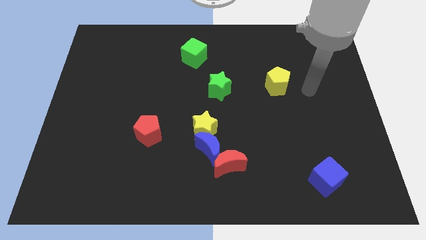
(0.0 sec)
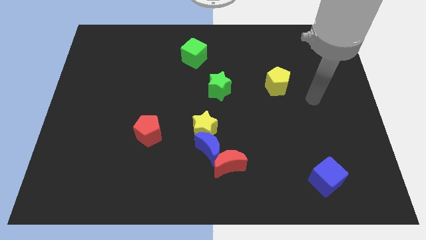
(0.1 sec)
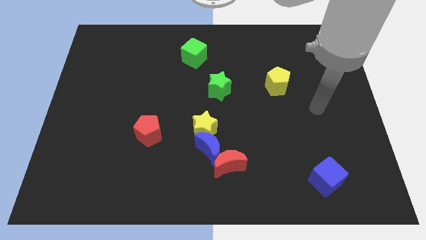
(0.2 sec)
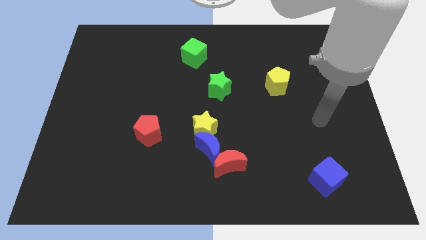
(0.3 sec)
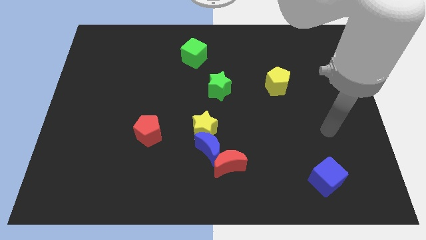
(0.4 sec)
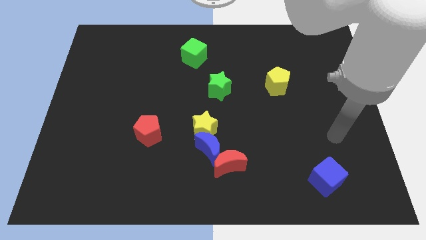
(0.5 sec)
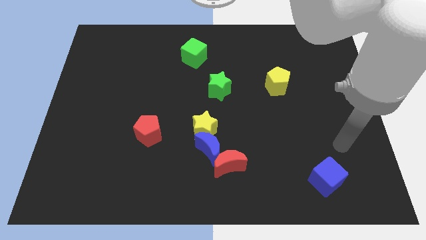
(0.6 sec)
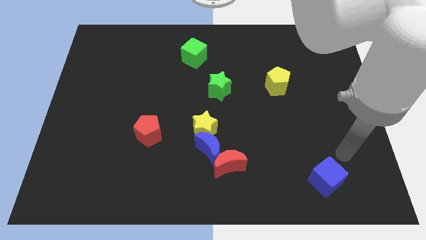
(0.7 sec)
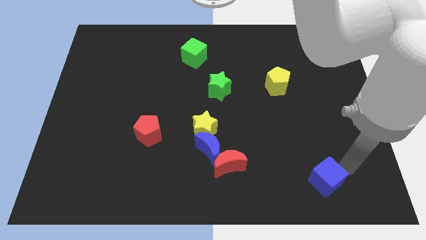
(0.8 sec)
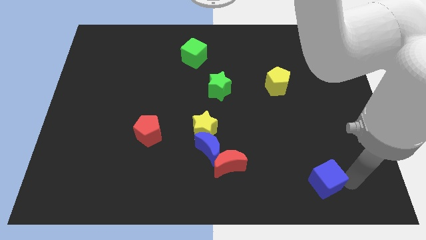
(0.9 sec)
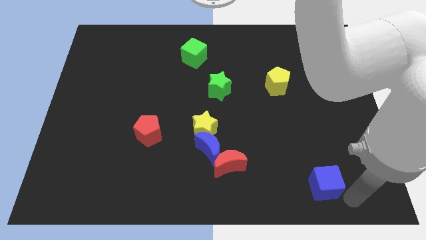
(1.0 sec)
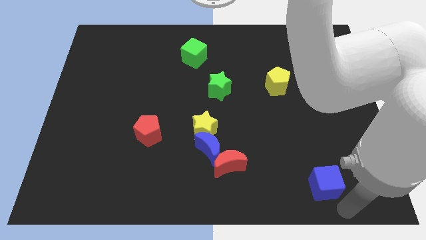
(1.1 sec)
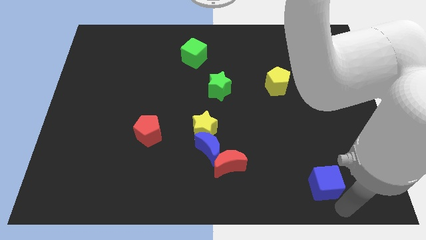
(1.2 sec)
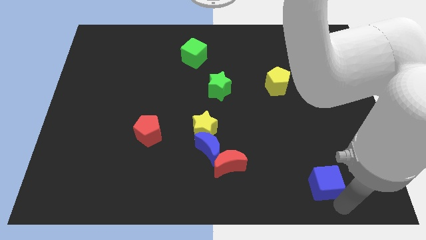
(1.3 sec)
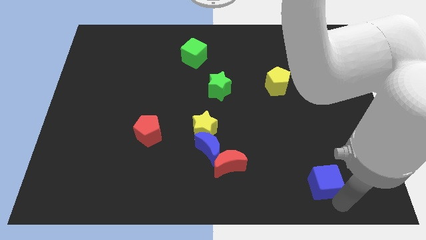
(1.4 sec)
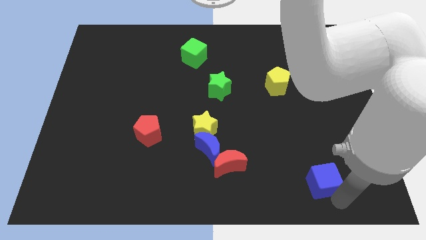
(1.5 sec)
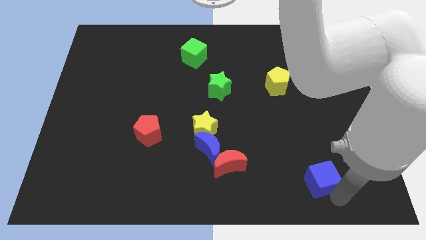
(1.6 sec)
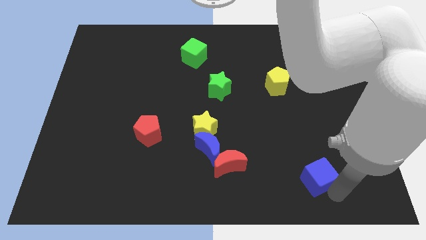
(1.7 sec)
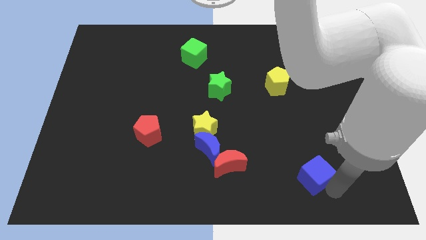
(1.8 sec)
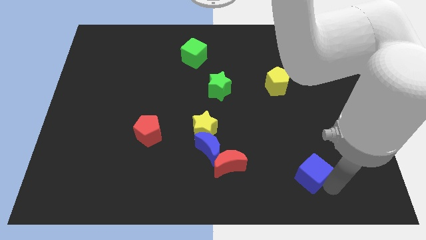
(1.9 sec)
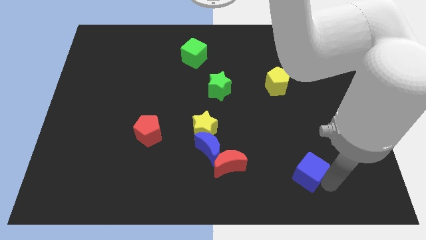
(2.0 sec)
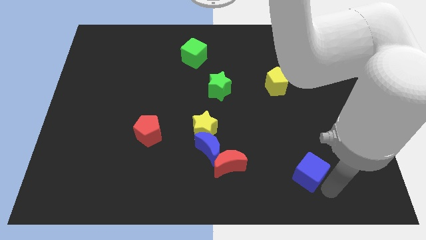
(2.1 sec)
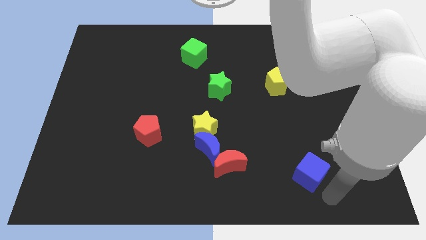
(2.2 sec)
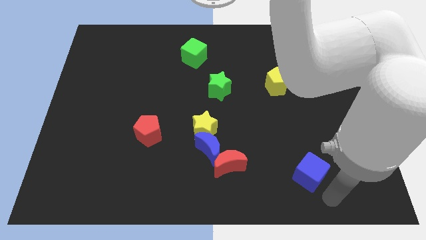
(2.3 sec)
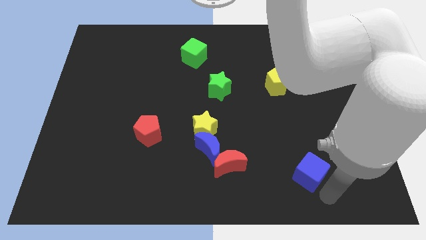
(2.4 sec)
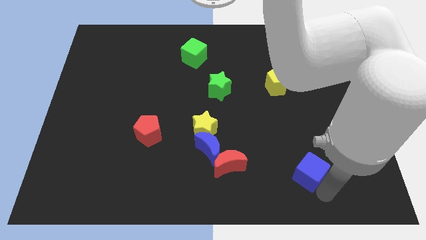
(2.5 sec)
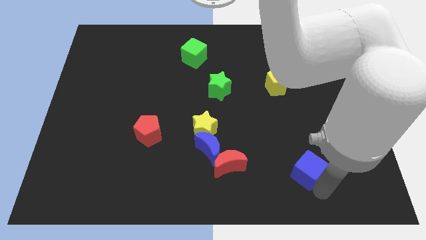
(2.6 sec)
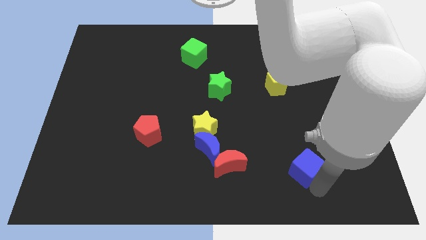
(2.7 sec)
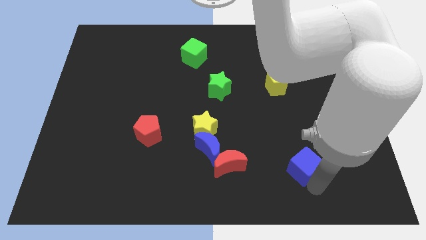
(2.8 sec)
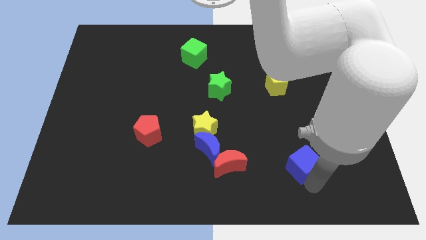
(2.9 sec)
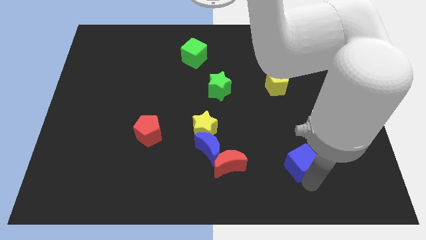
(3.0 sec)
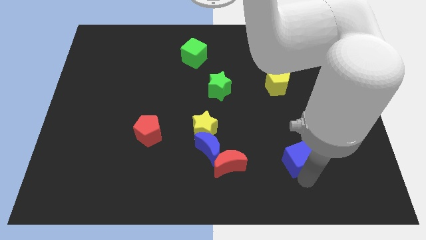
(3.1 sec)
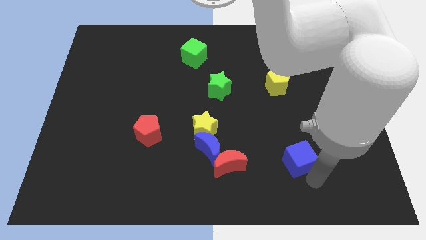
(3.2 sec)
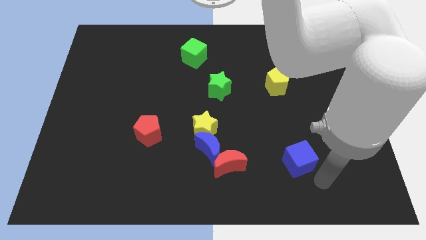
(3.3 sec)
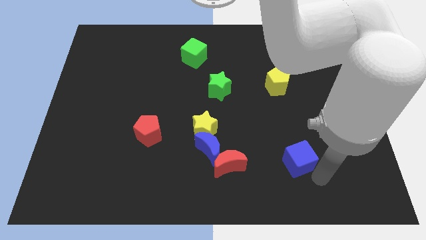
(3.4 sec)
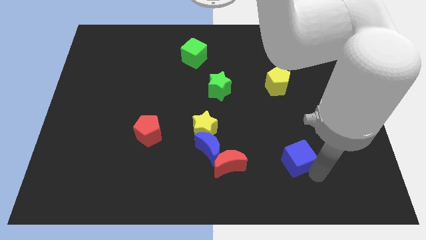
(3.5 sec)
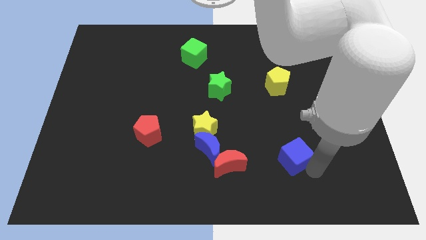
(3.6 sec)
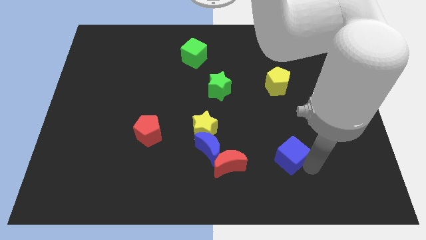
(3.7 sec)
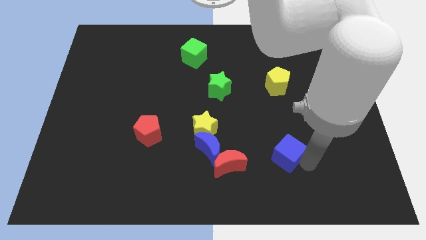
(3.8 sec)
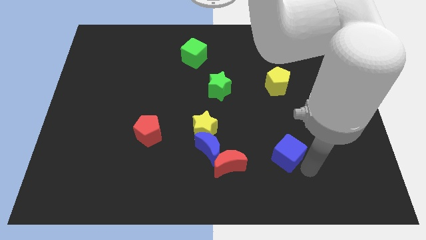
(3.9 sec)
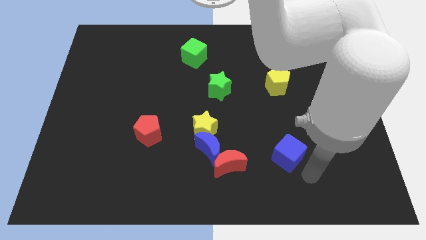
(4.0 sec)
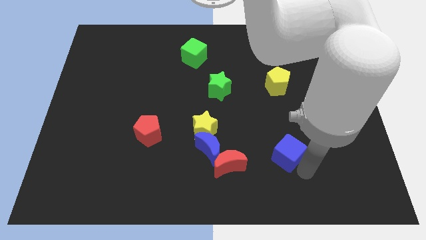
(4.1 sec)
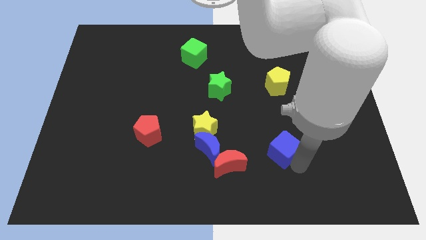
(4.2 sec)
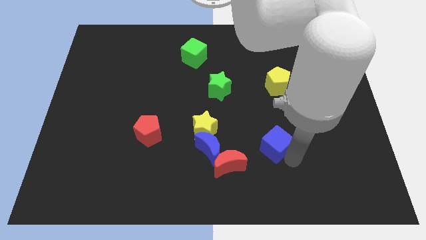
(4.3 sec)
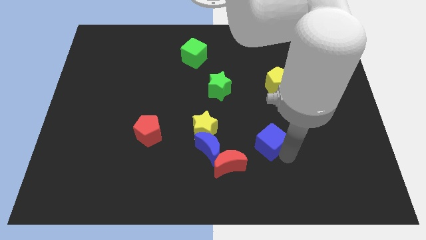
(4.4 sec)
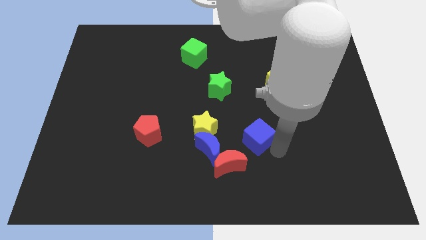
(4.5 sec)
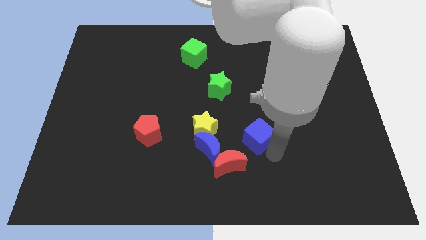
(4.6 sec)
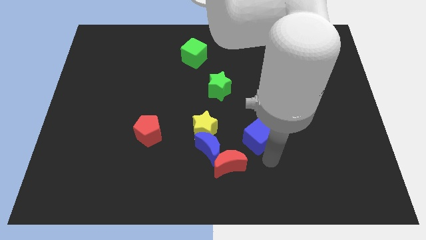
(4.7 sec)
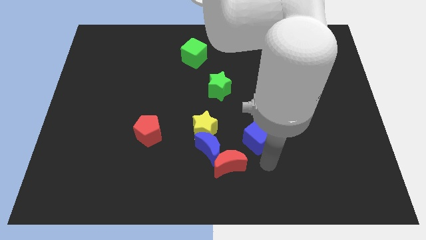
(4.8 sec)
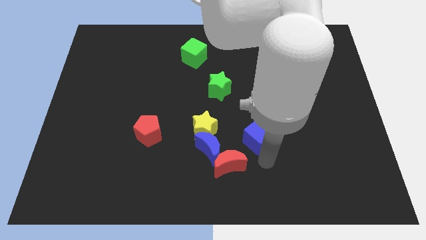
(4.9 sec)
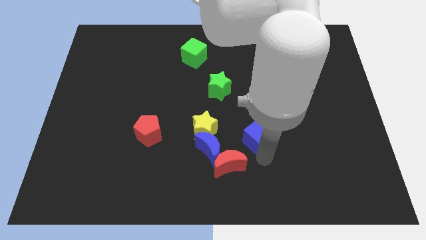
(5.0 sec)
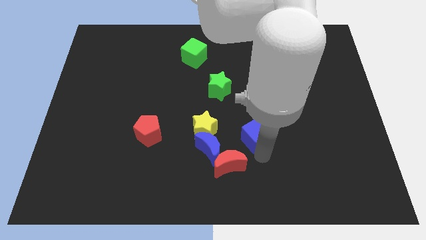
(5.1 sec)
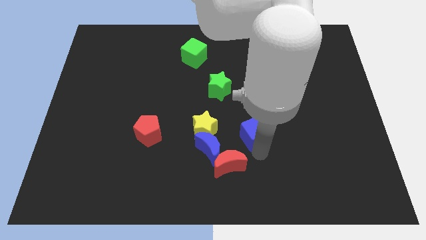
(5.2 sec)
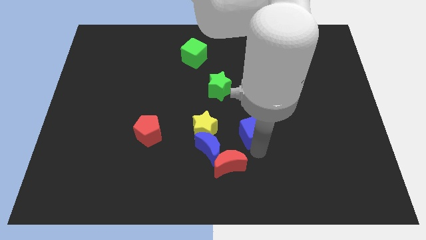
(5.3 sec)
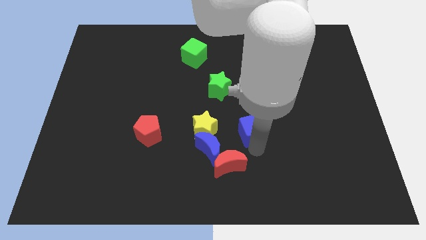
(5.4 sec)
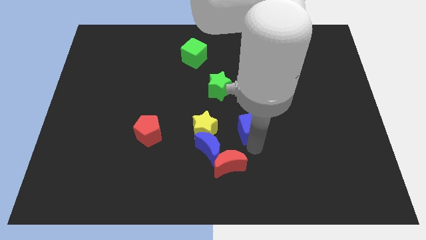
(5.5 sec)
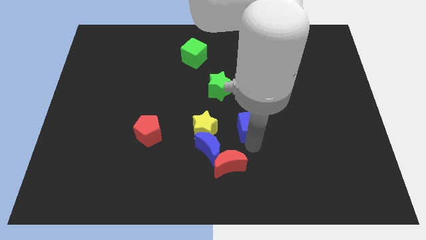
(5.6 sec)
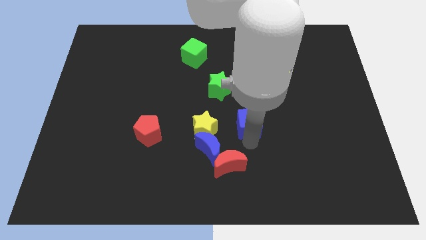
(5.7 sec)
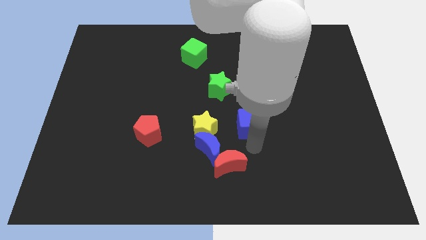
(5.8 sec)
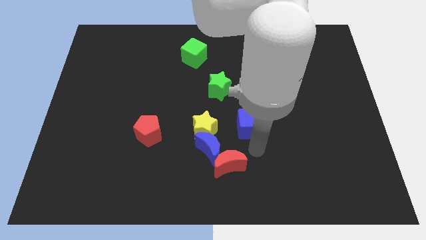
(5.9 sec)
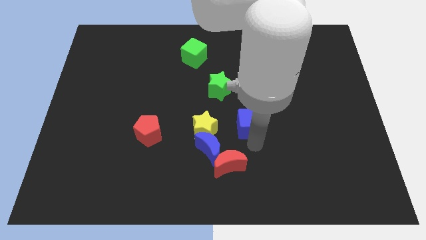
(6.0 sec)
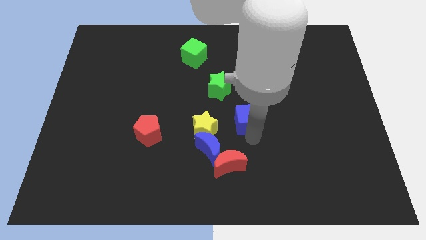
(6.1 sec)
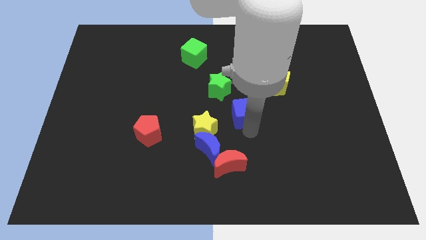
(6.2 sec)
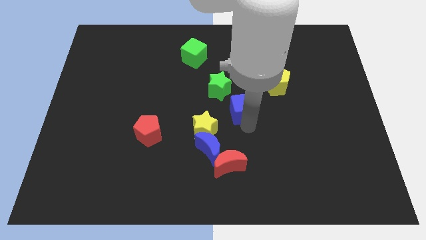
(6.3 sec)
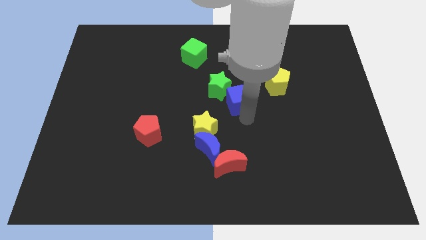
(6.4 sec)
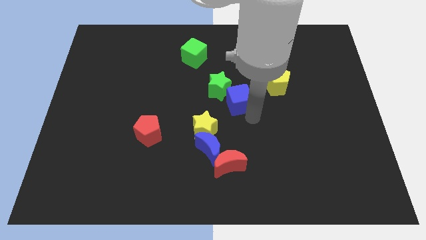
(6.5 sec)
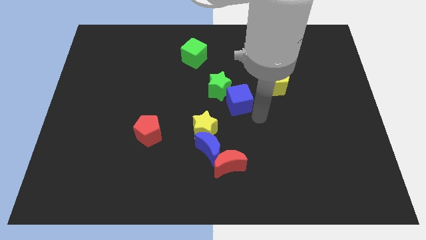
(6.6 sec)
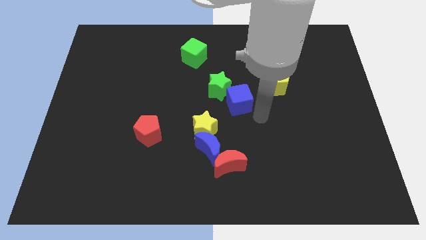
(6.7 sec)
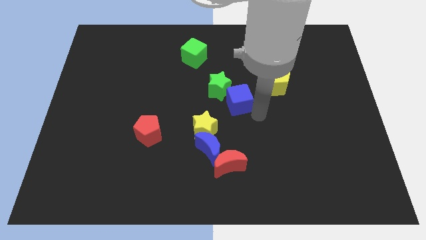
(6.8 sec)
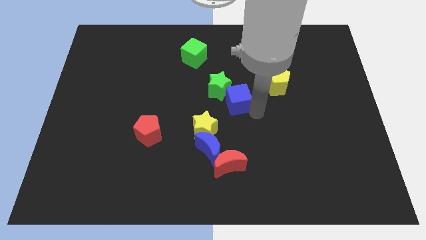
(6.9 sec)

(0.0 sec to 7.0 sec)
move the blue cube close to the green star

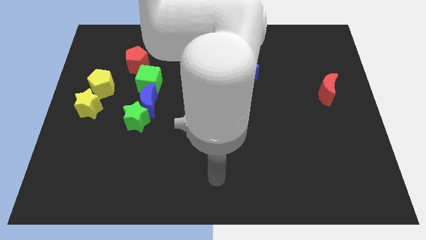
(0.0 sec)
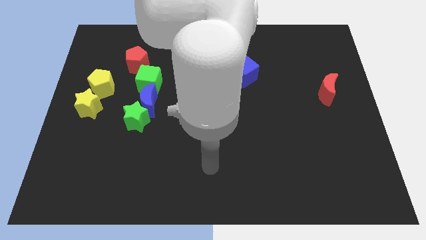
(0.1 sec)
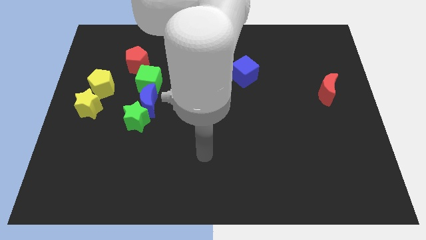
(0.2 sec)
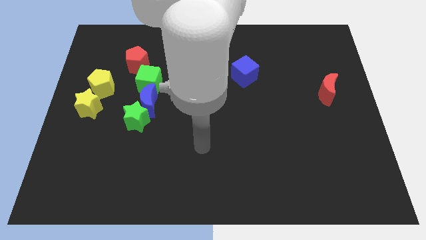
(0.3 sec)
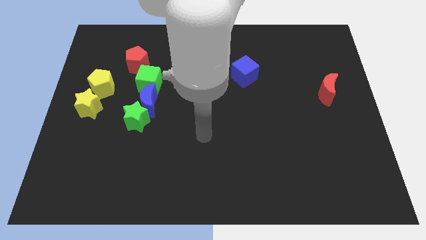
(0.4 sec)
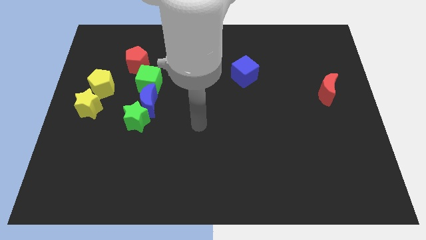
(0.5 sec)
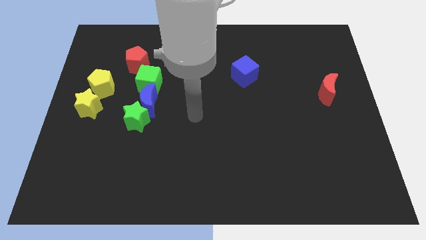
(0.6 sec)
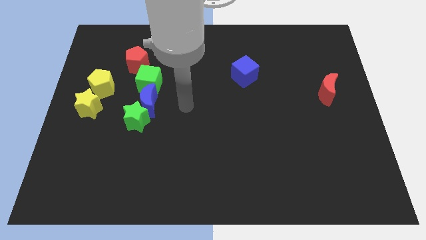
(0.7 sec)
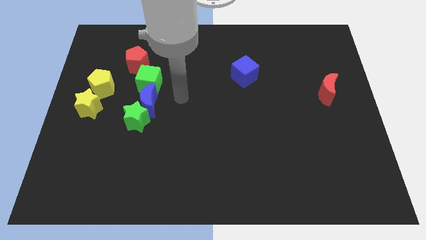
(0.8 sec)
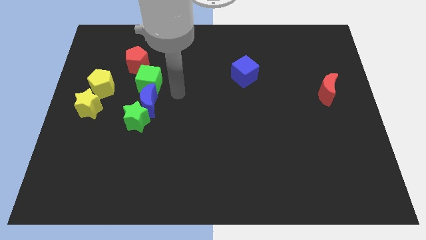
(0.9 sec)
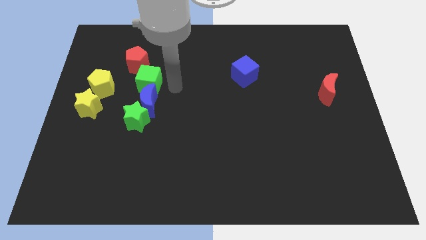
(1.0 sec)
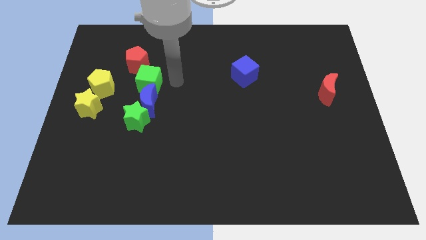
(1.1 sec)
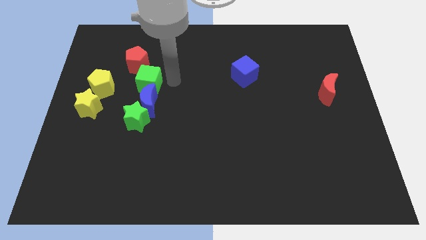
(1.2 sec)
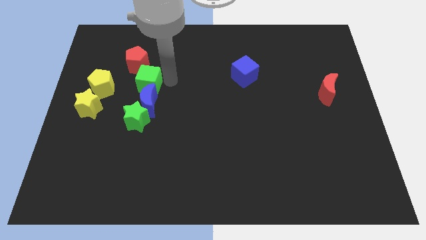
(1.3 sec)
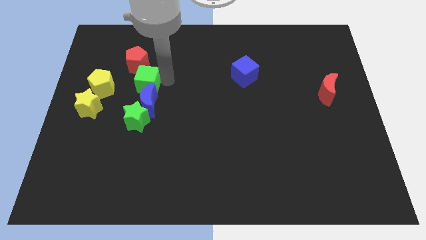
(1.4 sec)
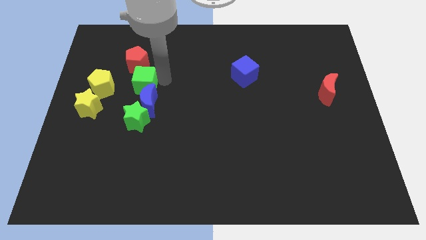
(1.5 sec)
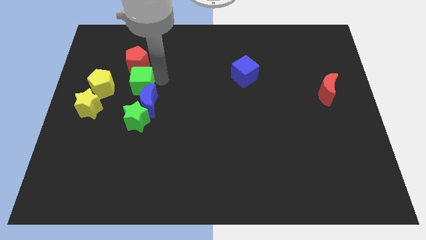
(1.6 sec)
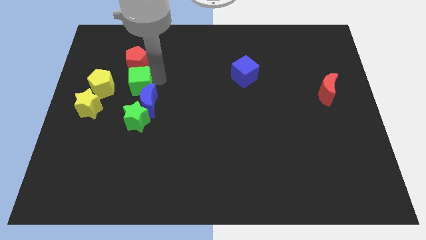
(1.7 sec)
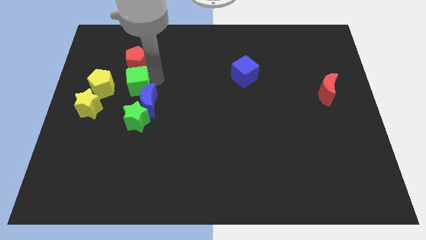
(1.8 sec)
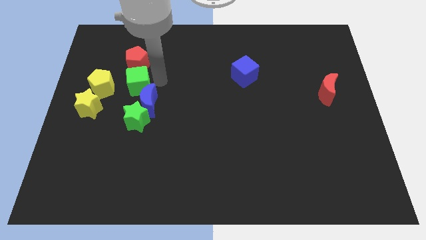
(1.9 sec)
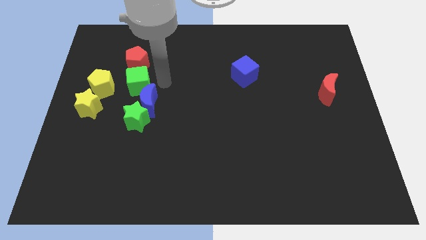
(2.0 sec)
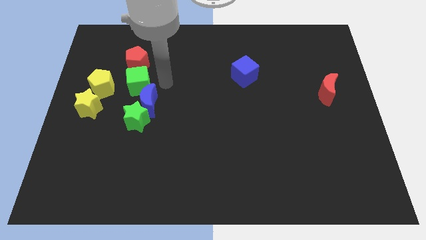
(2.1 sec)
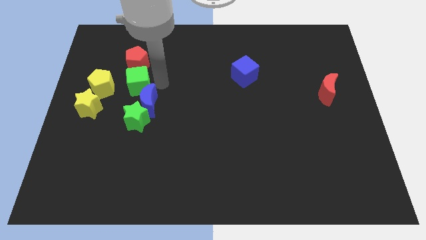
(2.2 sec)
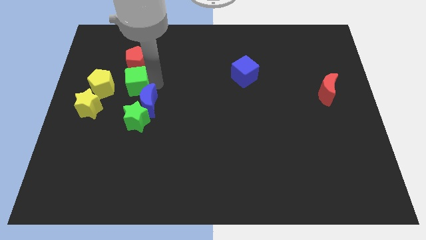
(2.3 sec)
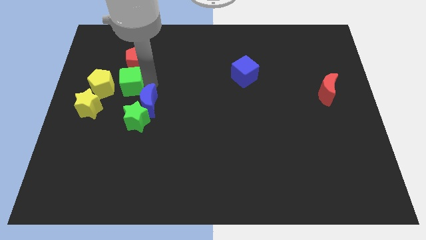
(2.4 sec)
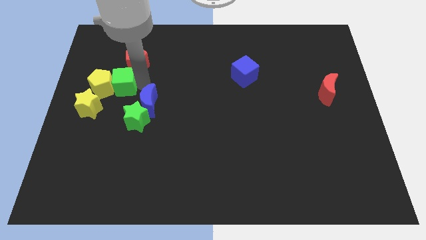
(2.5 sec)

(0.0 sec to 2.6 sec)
move the green cube towards the yellow pentagon
